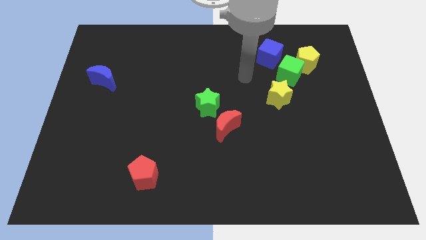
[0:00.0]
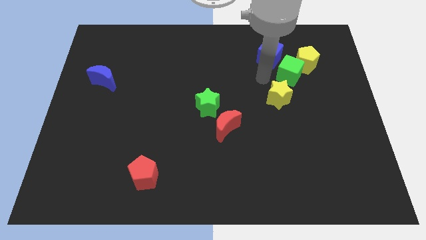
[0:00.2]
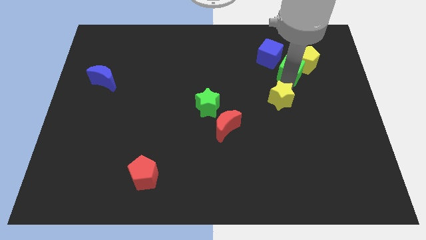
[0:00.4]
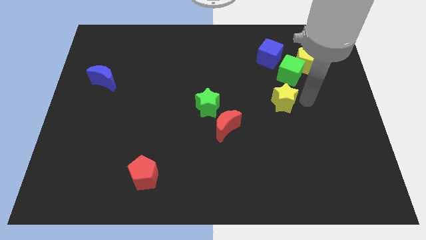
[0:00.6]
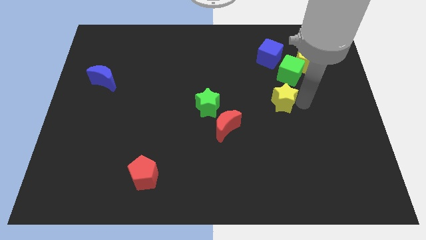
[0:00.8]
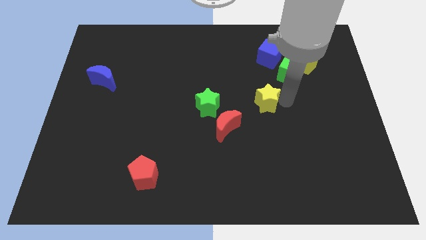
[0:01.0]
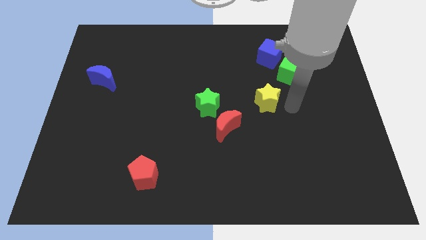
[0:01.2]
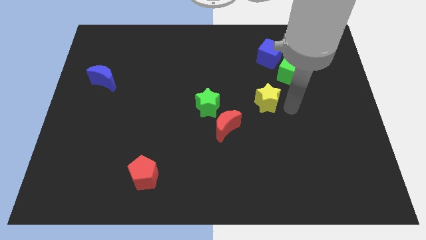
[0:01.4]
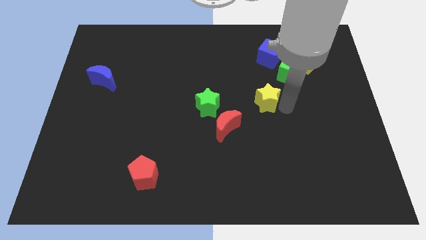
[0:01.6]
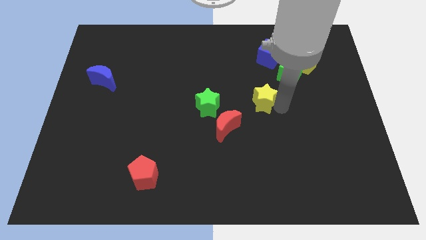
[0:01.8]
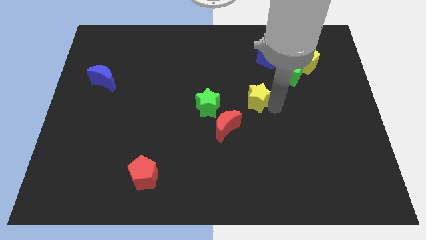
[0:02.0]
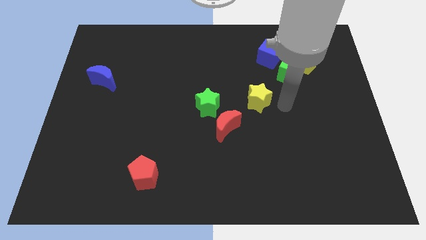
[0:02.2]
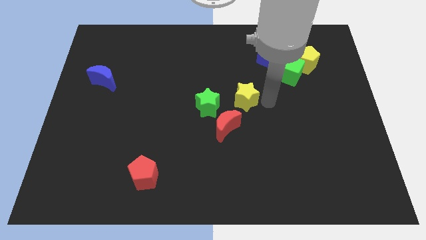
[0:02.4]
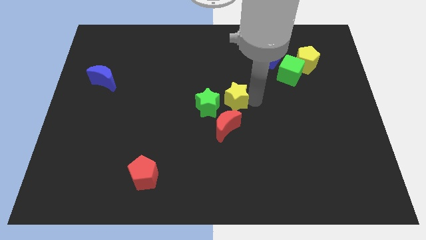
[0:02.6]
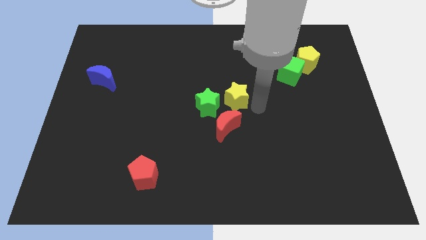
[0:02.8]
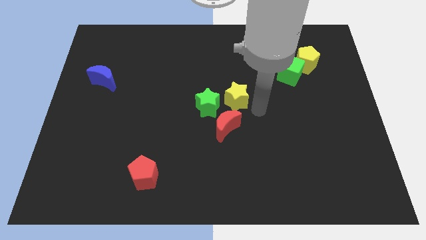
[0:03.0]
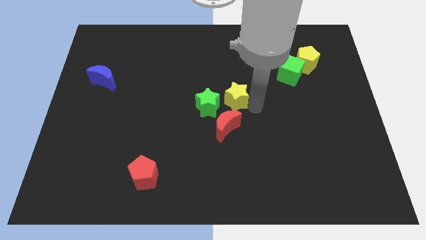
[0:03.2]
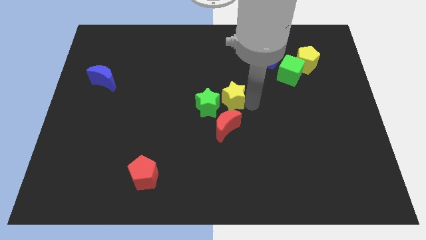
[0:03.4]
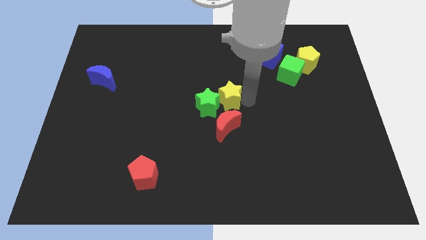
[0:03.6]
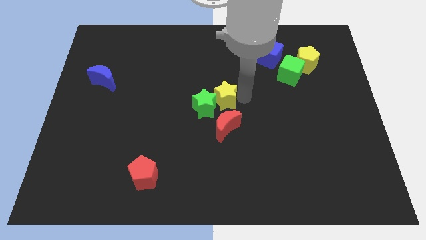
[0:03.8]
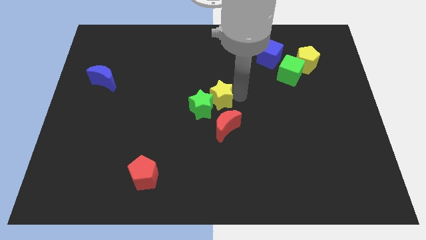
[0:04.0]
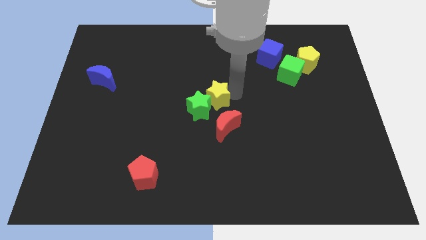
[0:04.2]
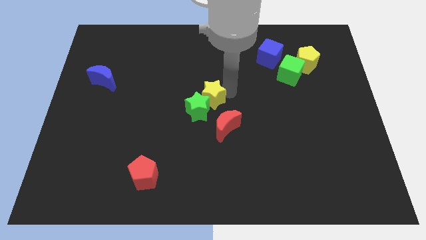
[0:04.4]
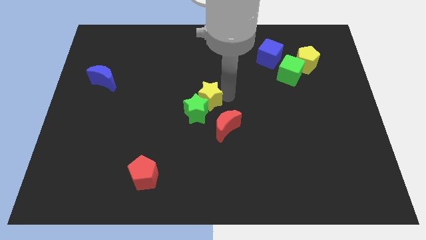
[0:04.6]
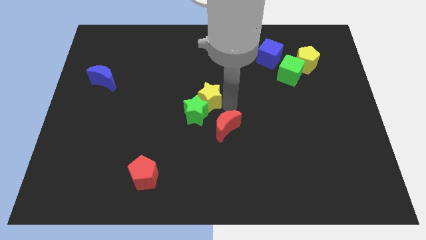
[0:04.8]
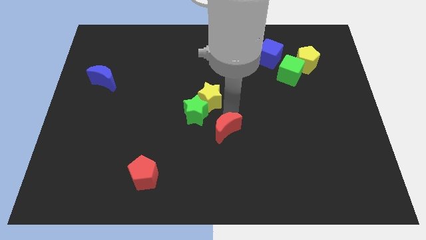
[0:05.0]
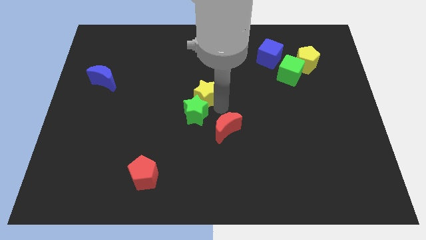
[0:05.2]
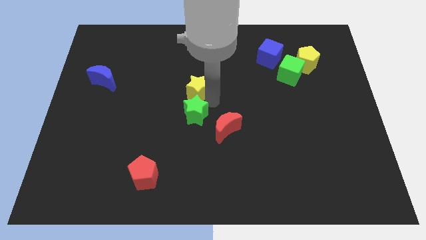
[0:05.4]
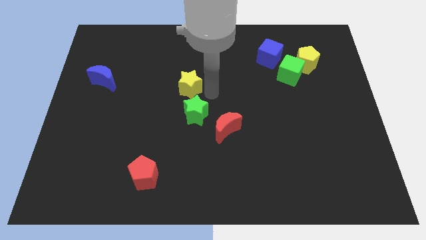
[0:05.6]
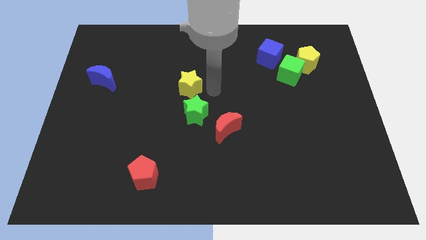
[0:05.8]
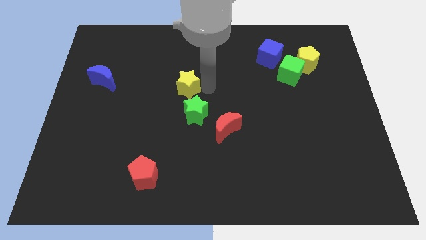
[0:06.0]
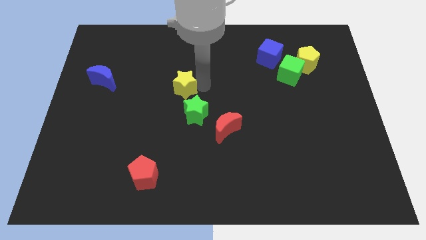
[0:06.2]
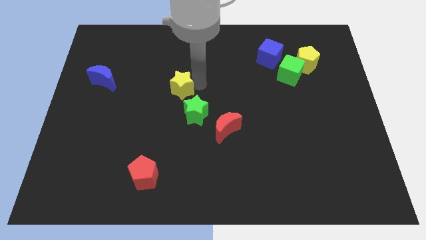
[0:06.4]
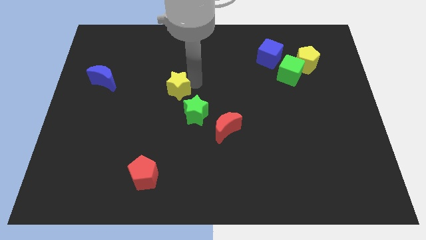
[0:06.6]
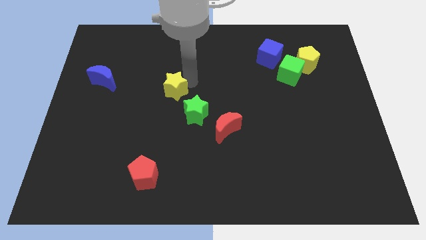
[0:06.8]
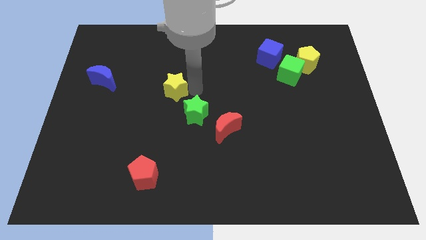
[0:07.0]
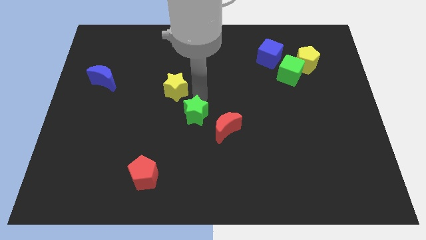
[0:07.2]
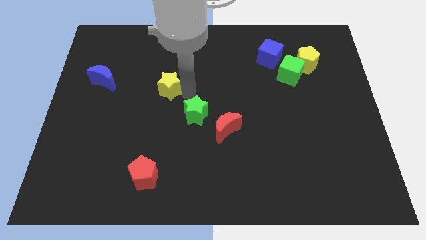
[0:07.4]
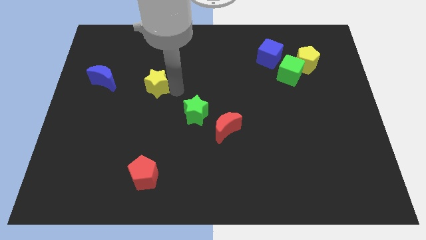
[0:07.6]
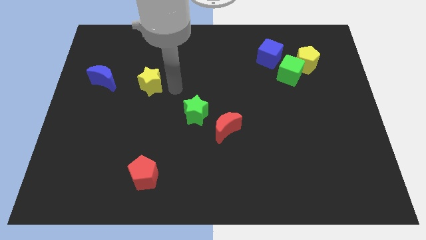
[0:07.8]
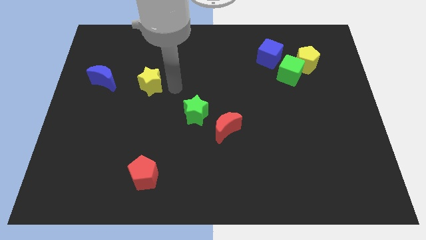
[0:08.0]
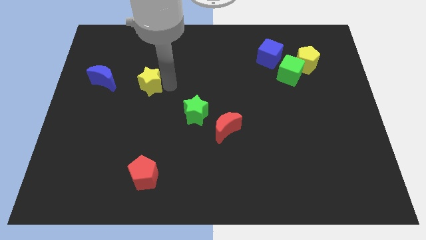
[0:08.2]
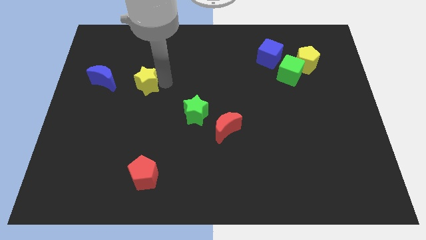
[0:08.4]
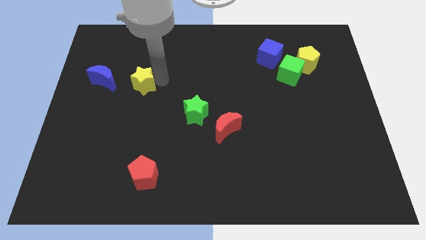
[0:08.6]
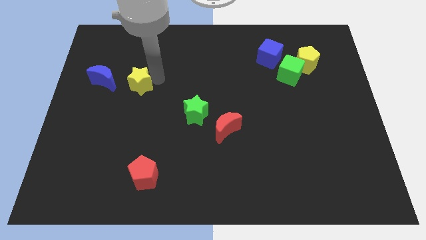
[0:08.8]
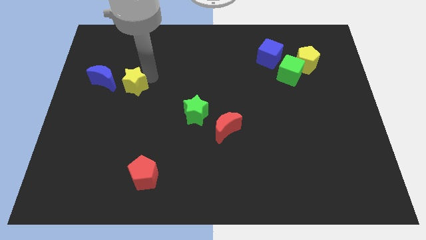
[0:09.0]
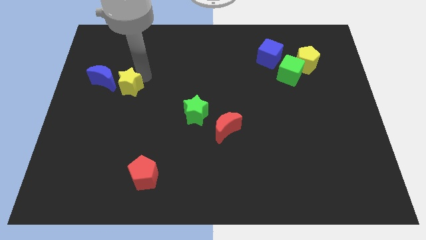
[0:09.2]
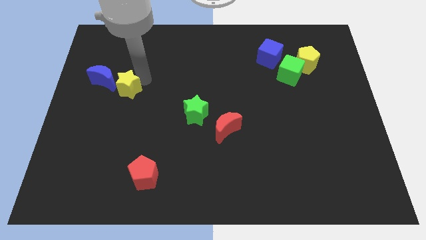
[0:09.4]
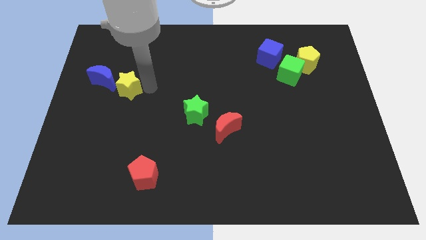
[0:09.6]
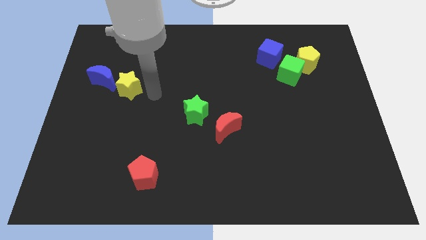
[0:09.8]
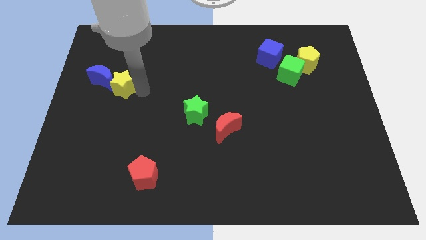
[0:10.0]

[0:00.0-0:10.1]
move the yellow star next to the blue moon

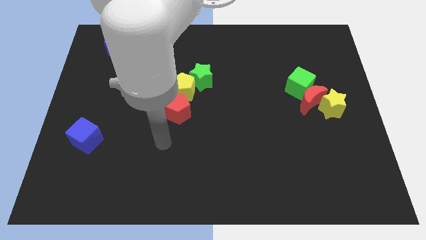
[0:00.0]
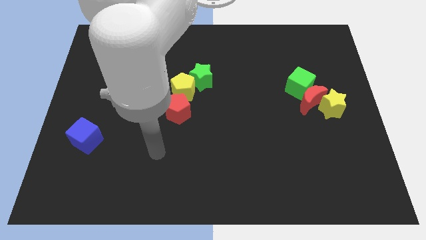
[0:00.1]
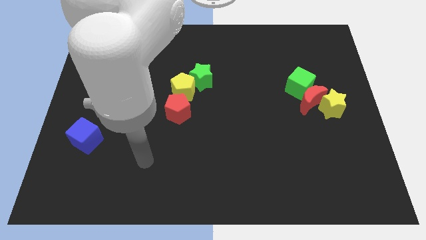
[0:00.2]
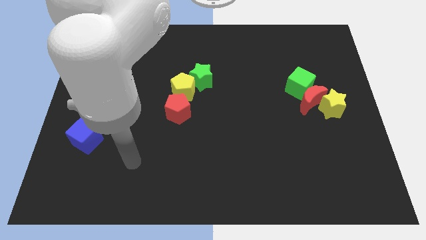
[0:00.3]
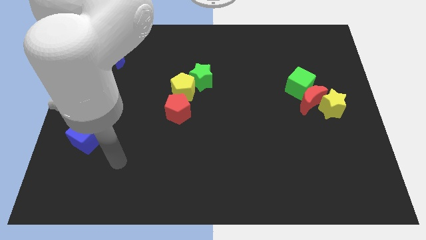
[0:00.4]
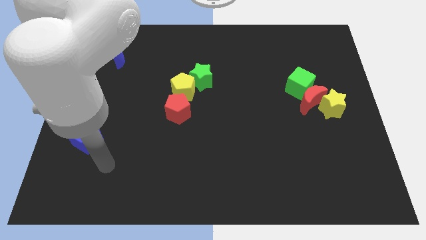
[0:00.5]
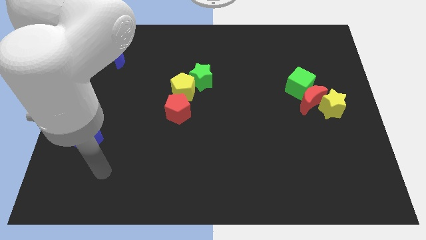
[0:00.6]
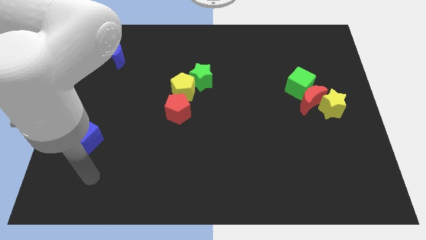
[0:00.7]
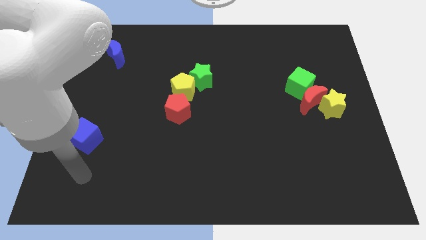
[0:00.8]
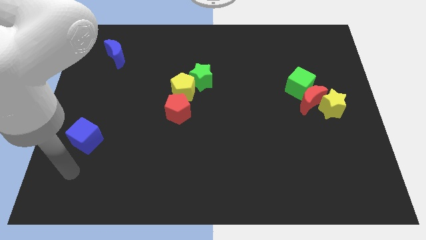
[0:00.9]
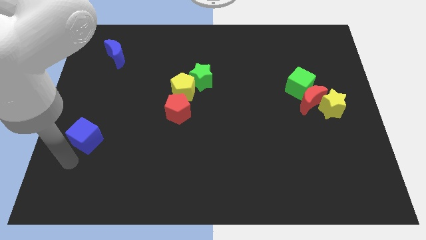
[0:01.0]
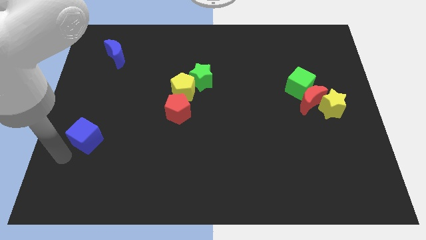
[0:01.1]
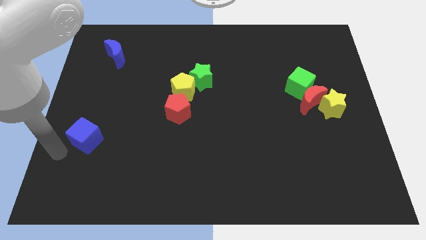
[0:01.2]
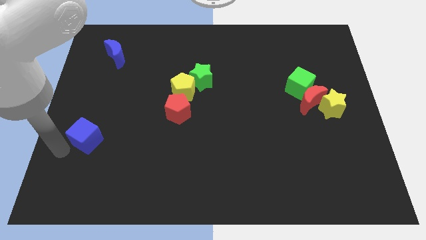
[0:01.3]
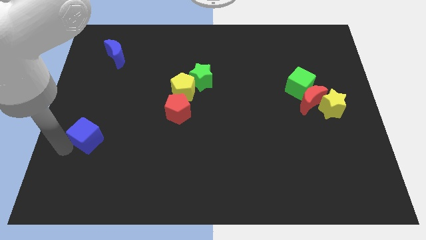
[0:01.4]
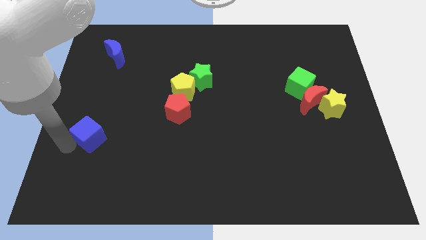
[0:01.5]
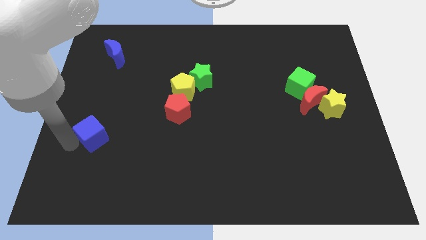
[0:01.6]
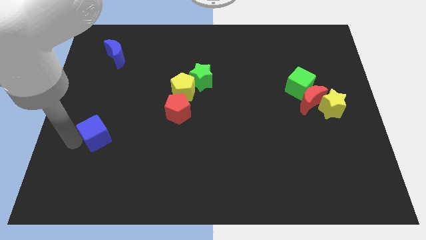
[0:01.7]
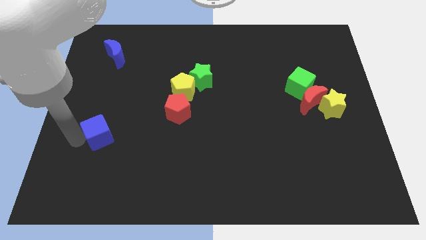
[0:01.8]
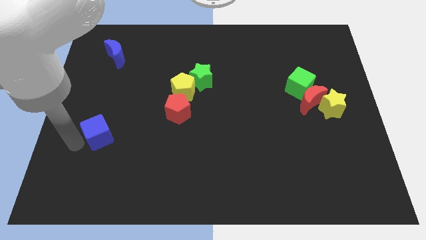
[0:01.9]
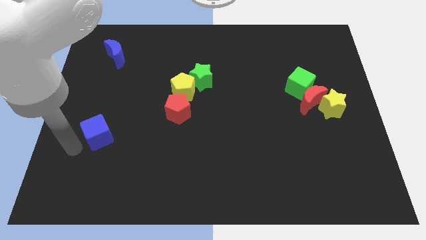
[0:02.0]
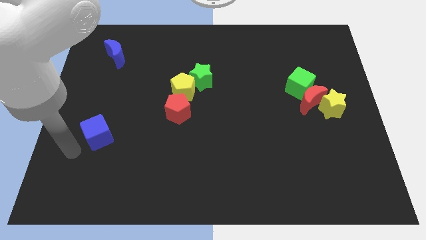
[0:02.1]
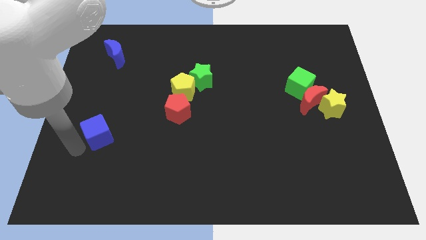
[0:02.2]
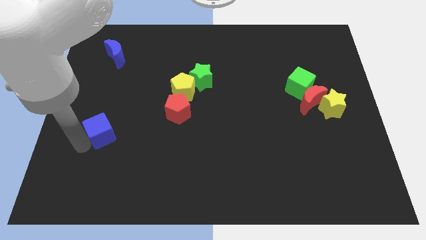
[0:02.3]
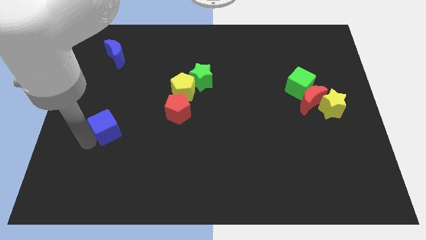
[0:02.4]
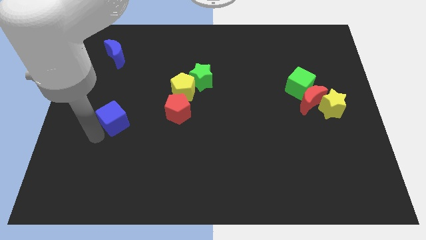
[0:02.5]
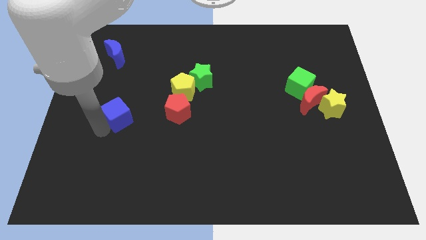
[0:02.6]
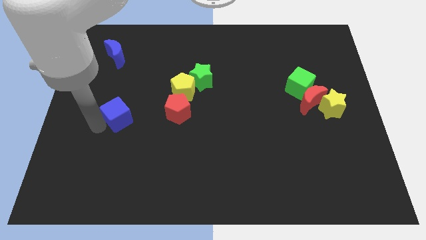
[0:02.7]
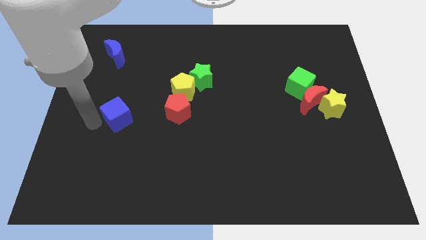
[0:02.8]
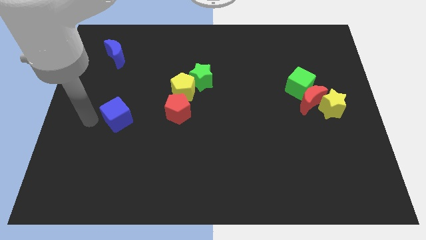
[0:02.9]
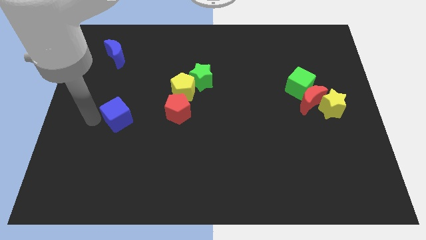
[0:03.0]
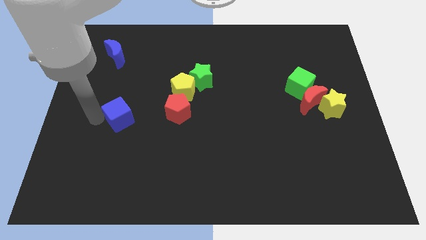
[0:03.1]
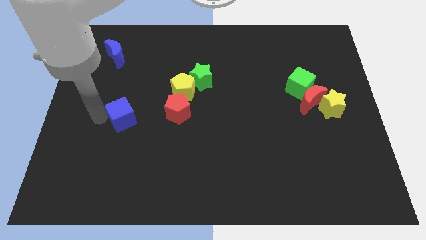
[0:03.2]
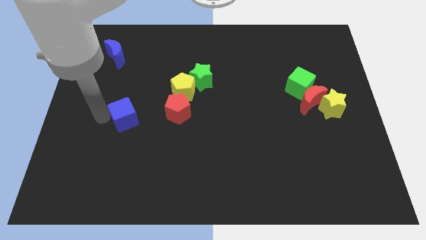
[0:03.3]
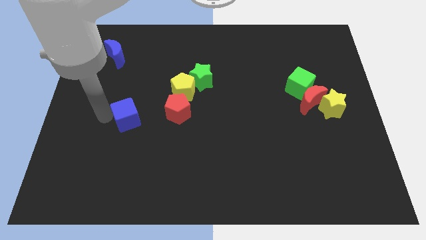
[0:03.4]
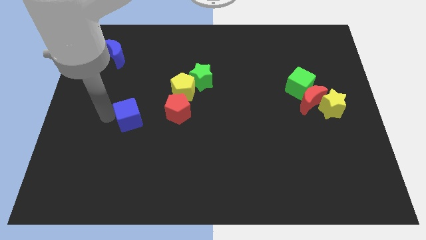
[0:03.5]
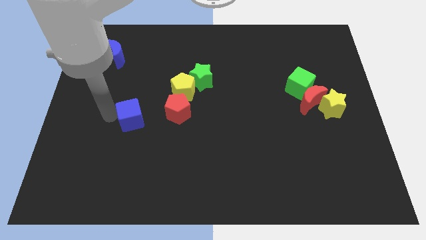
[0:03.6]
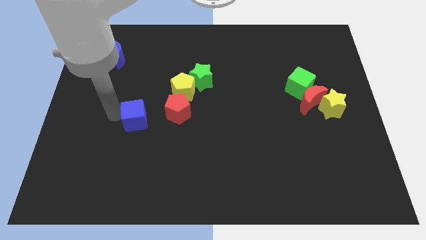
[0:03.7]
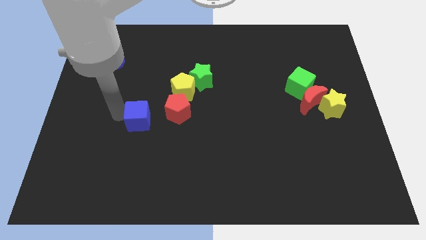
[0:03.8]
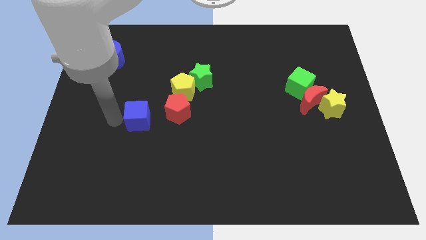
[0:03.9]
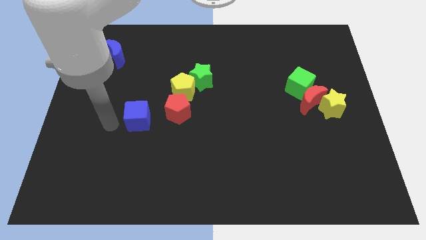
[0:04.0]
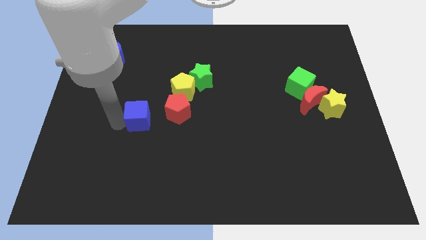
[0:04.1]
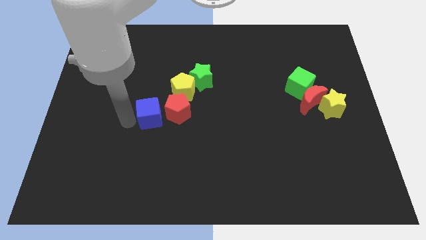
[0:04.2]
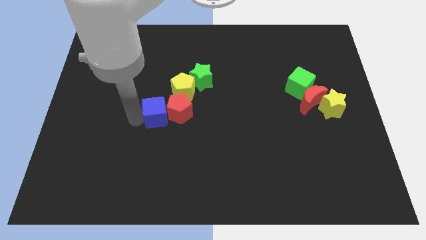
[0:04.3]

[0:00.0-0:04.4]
put the blue cube close to the red pentagon
